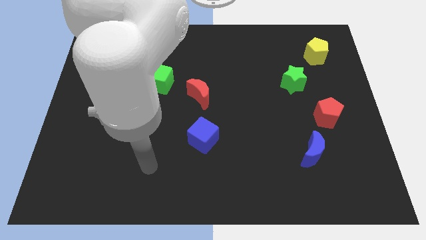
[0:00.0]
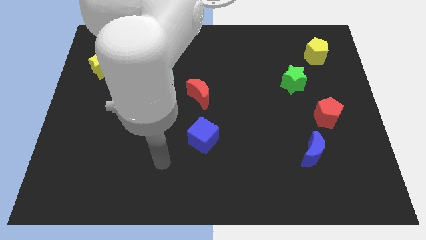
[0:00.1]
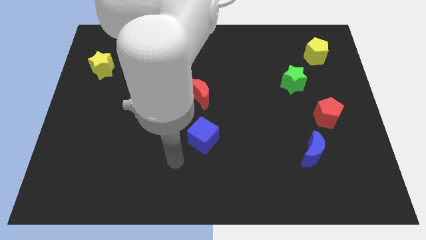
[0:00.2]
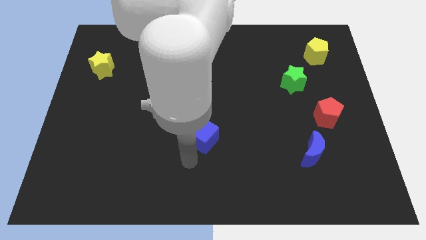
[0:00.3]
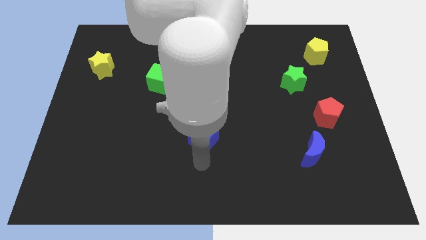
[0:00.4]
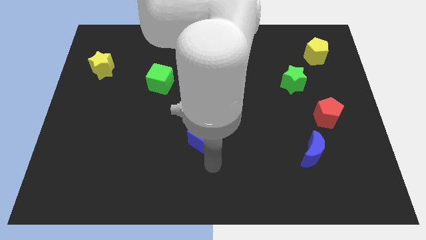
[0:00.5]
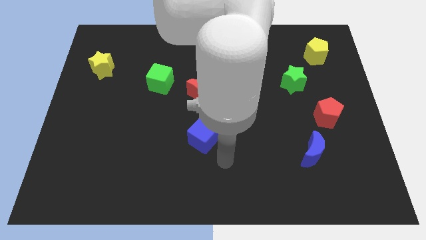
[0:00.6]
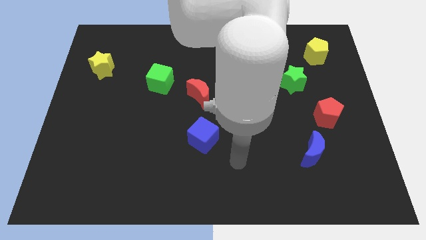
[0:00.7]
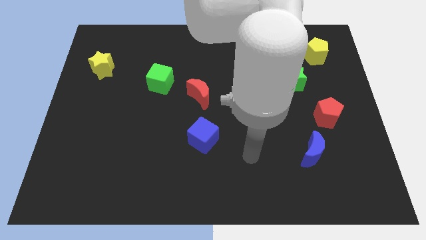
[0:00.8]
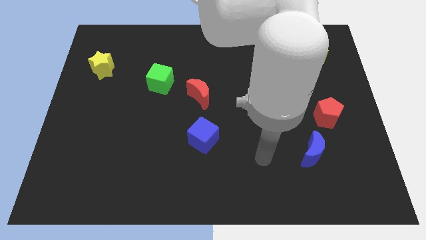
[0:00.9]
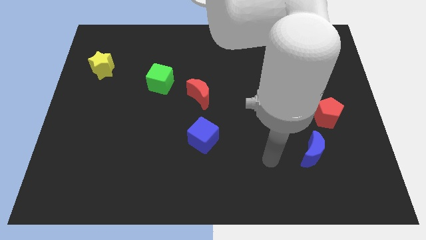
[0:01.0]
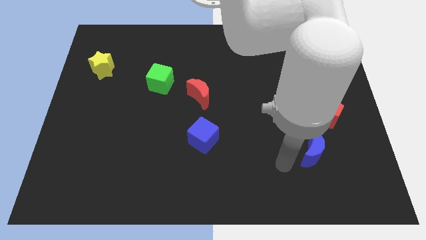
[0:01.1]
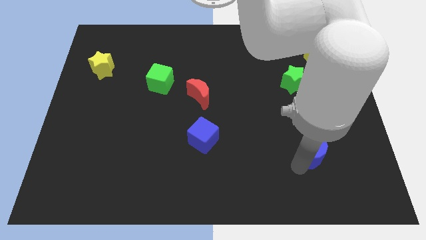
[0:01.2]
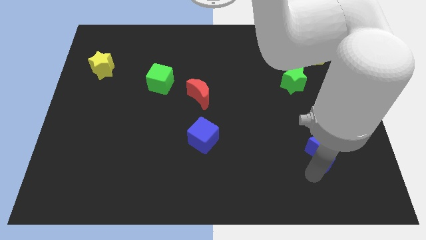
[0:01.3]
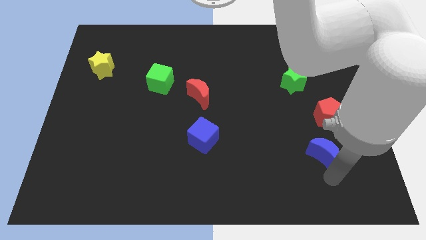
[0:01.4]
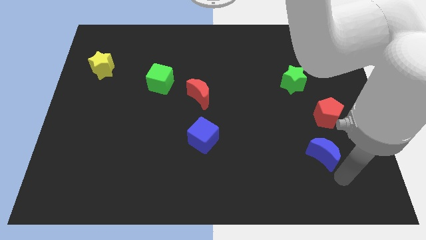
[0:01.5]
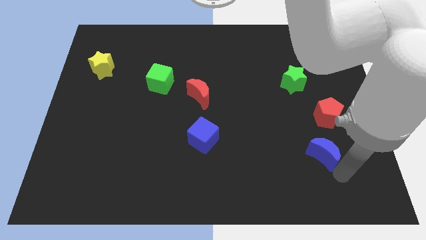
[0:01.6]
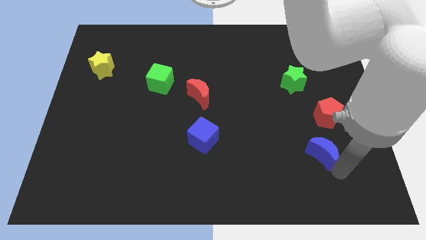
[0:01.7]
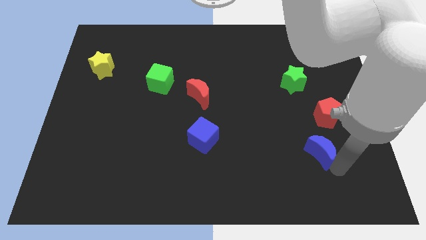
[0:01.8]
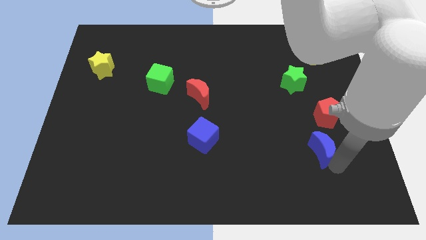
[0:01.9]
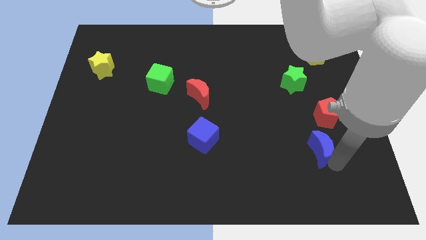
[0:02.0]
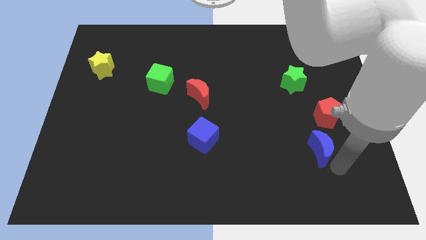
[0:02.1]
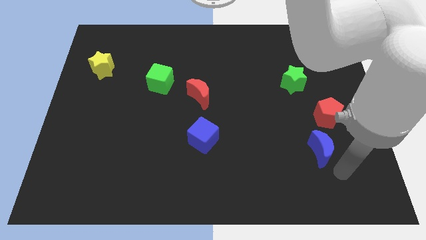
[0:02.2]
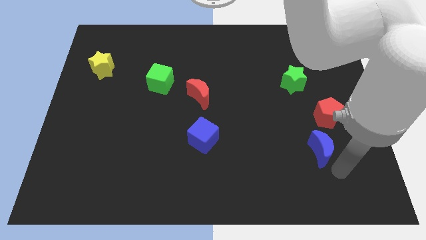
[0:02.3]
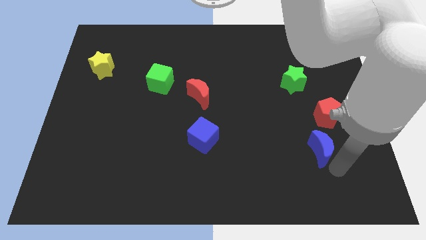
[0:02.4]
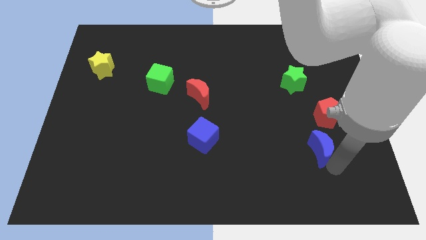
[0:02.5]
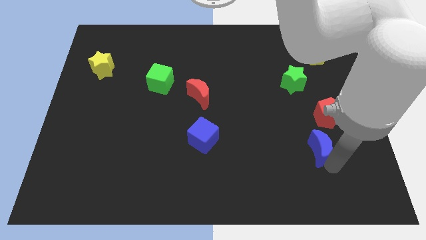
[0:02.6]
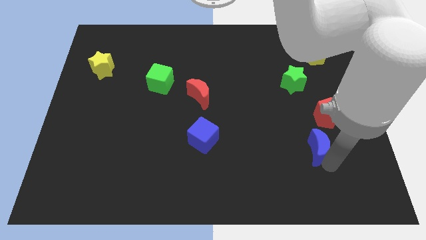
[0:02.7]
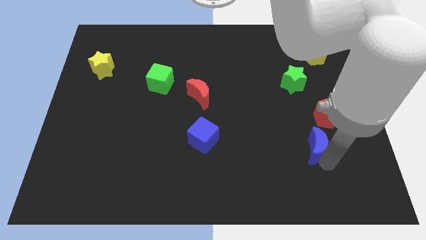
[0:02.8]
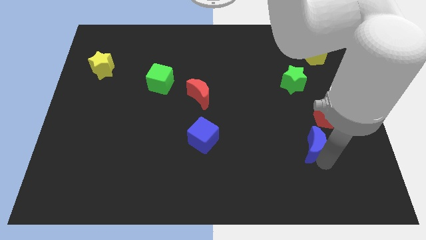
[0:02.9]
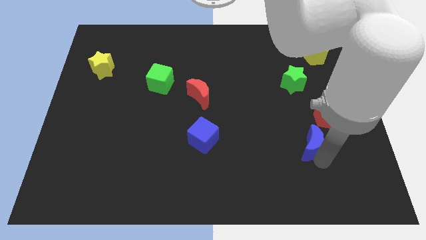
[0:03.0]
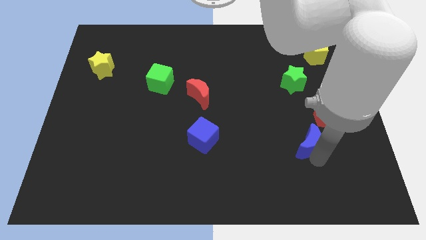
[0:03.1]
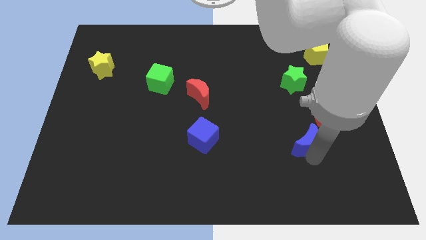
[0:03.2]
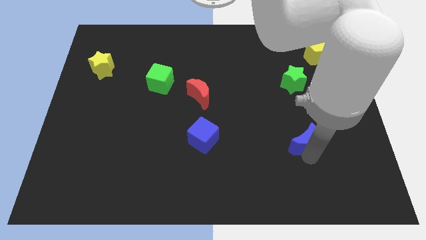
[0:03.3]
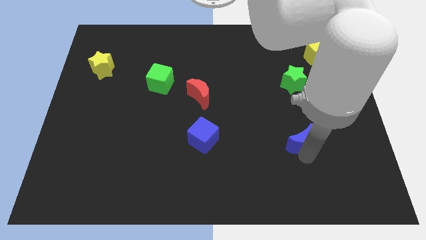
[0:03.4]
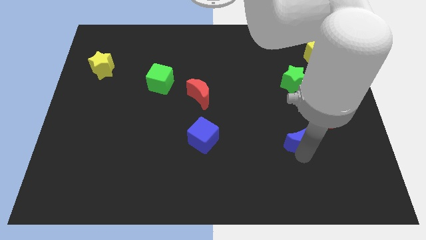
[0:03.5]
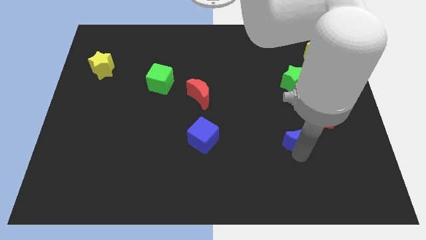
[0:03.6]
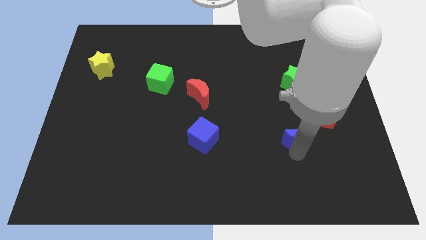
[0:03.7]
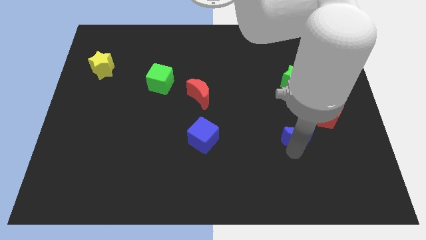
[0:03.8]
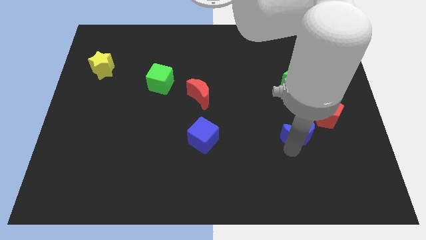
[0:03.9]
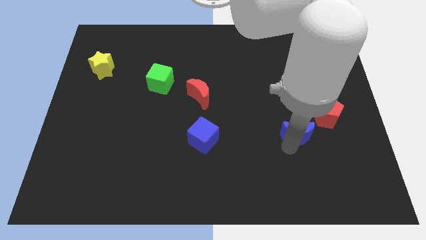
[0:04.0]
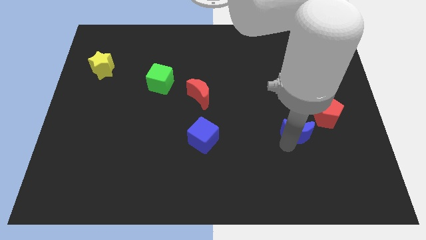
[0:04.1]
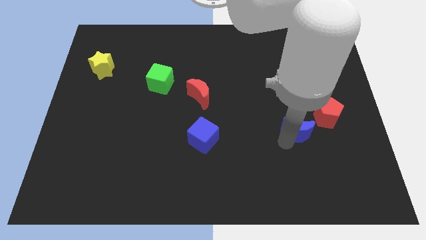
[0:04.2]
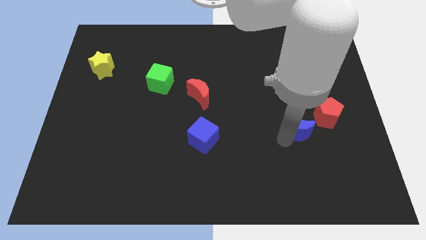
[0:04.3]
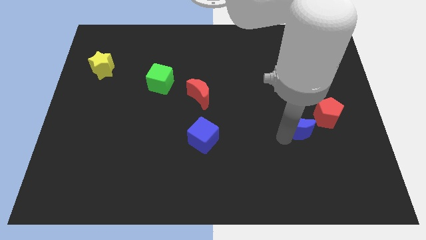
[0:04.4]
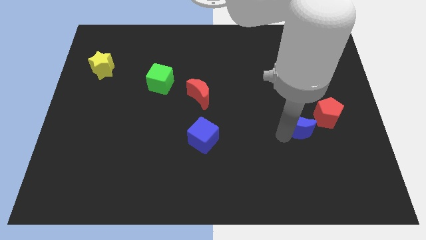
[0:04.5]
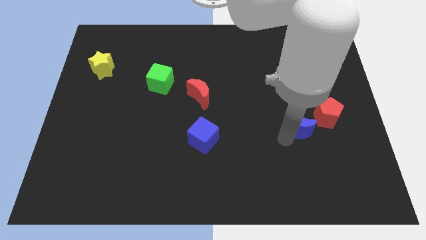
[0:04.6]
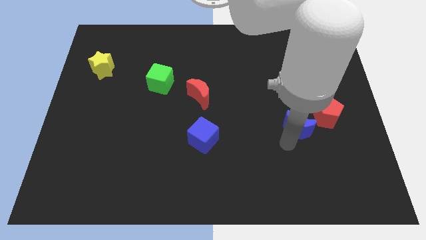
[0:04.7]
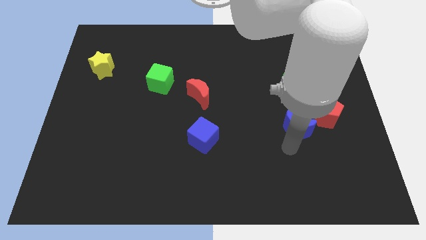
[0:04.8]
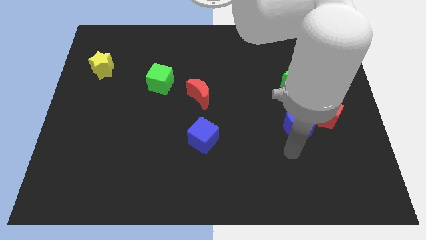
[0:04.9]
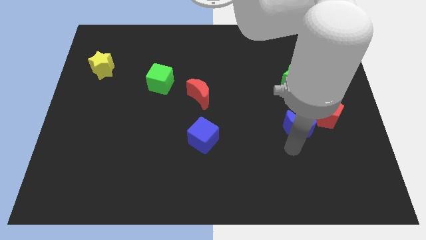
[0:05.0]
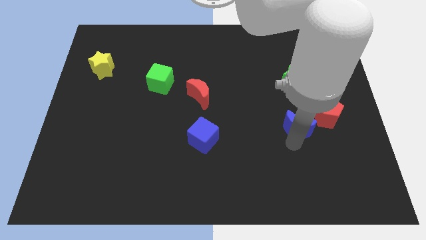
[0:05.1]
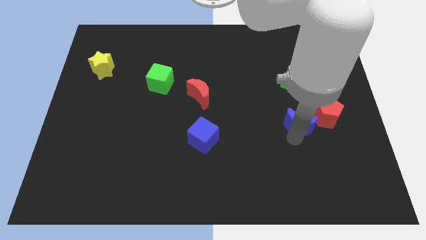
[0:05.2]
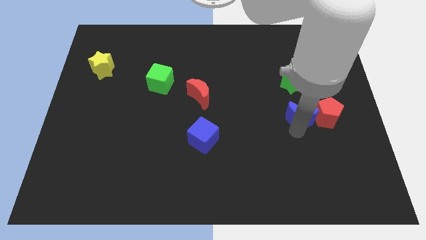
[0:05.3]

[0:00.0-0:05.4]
push the blue moon diagonally up and to the left of the red pentagon

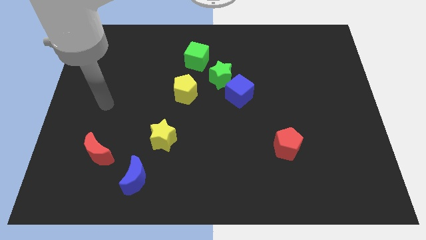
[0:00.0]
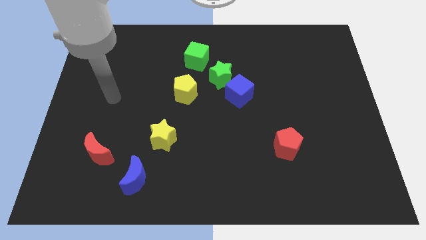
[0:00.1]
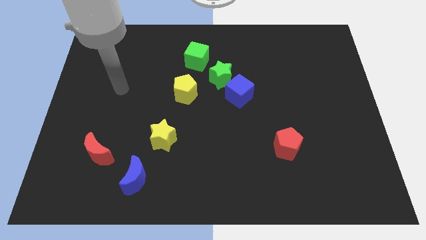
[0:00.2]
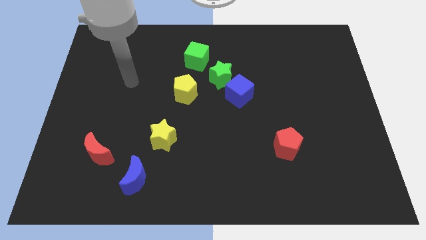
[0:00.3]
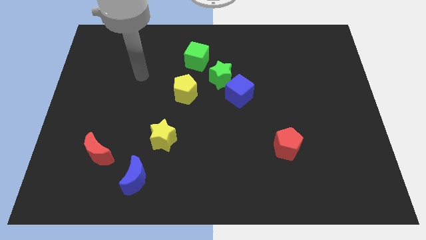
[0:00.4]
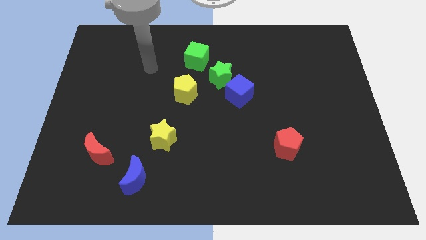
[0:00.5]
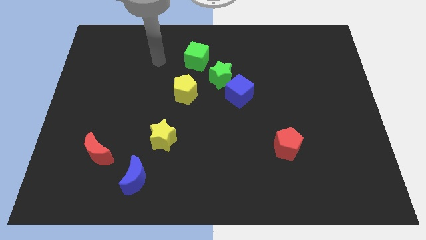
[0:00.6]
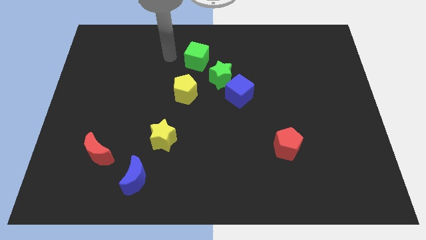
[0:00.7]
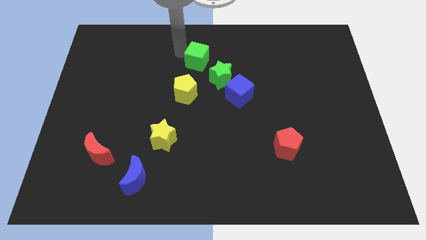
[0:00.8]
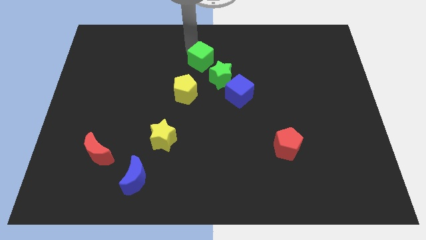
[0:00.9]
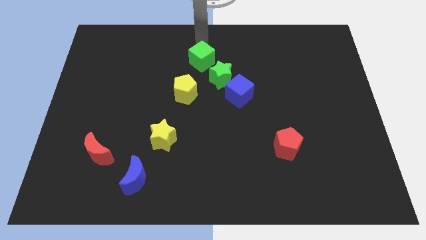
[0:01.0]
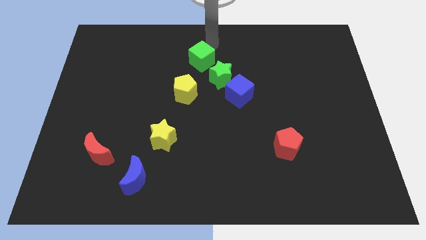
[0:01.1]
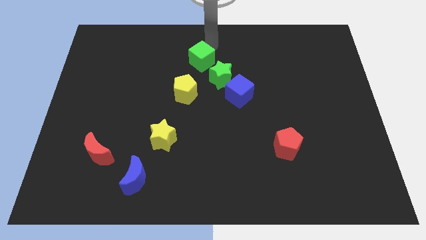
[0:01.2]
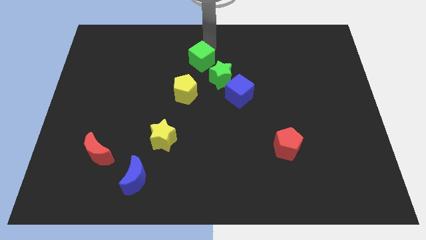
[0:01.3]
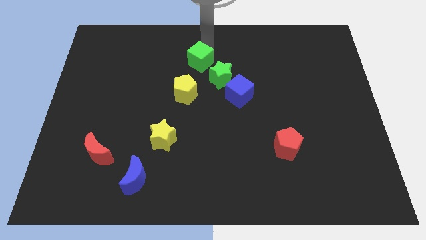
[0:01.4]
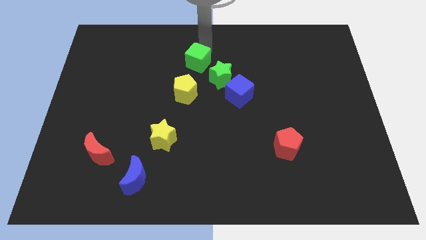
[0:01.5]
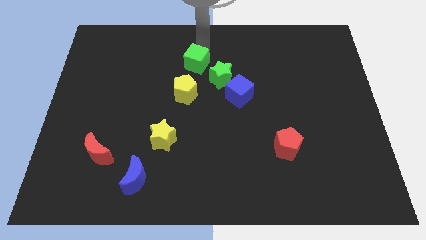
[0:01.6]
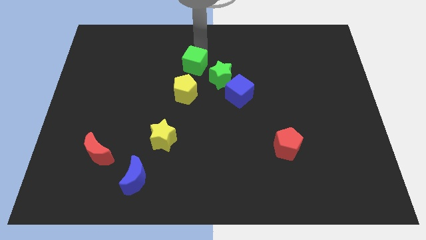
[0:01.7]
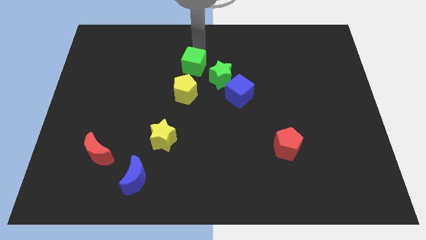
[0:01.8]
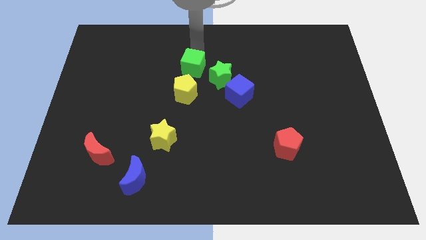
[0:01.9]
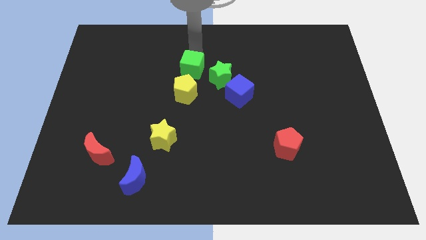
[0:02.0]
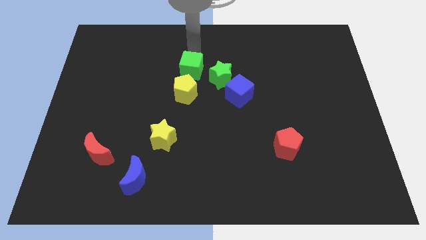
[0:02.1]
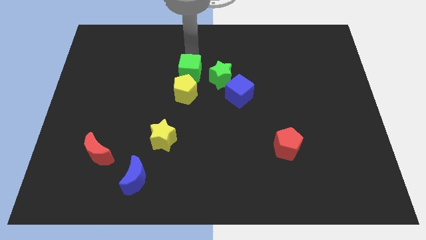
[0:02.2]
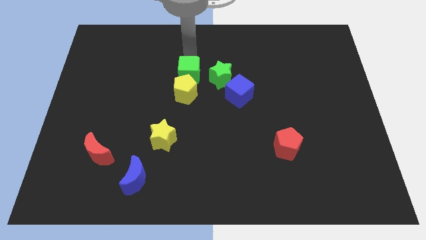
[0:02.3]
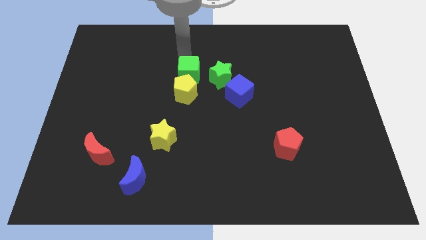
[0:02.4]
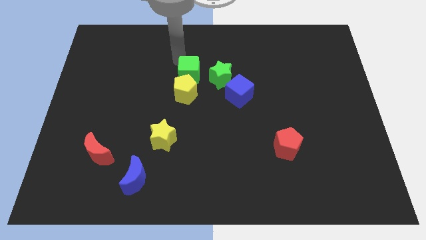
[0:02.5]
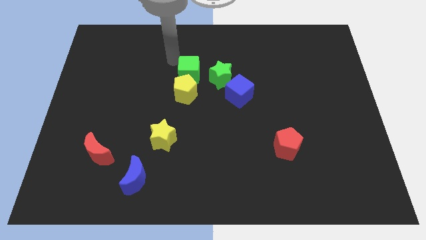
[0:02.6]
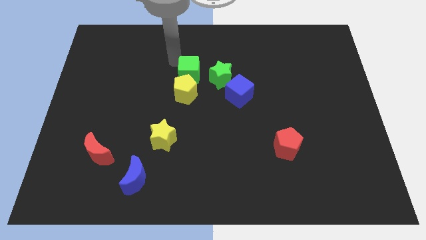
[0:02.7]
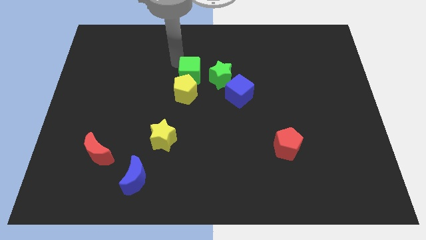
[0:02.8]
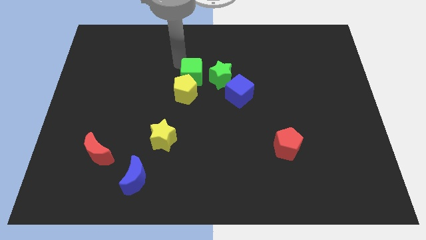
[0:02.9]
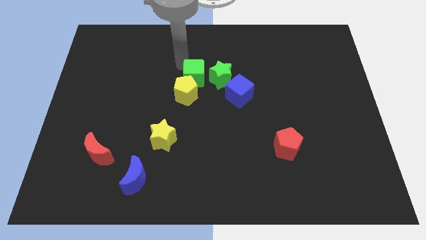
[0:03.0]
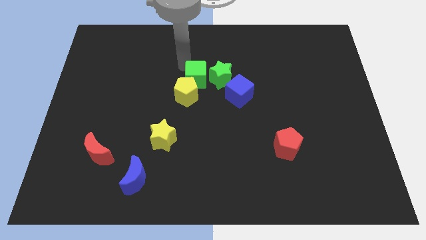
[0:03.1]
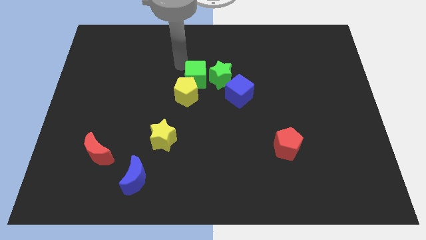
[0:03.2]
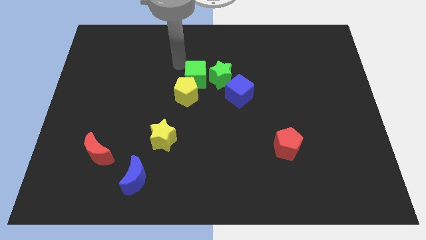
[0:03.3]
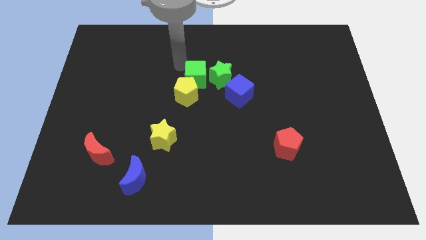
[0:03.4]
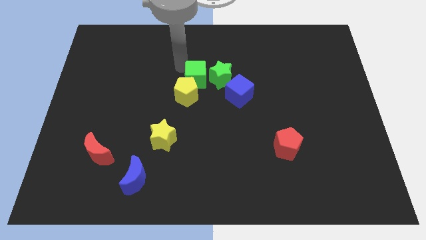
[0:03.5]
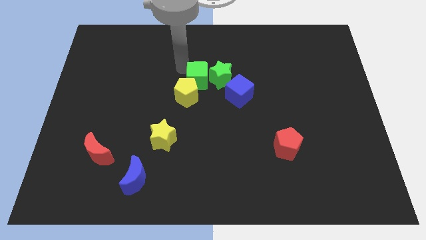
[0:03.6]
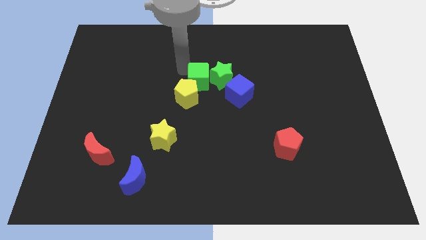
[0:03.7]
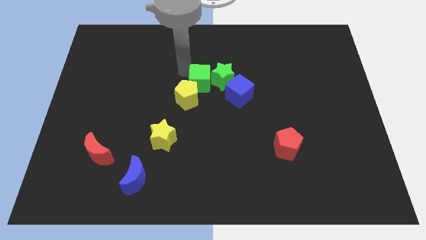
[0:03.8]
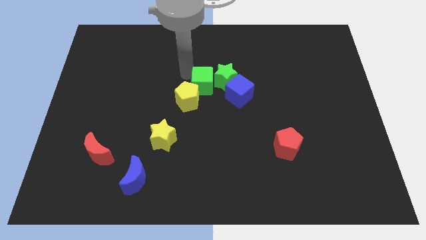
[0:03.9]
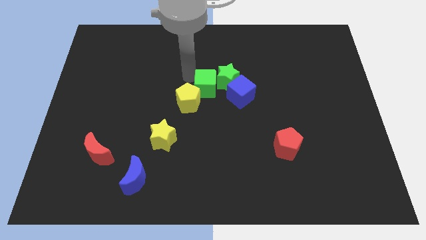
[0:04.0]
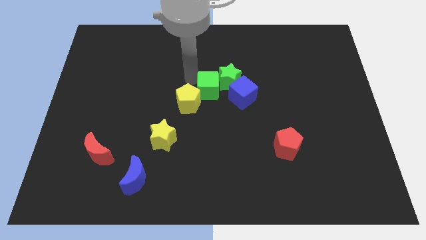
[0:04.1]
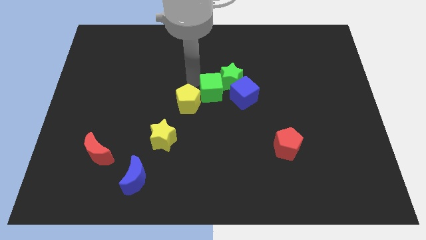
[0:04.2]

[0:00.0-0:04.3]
put the green cube to the bottom side of the green star
